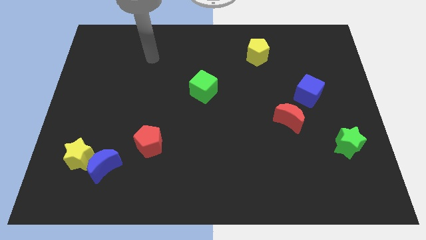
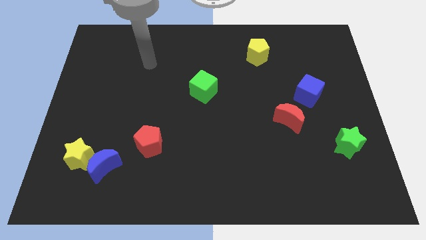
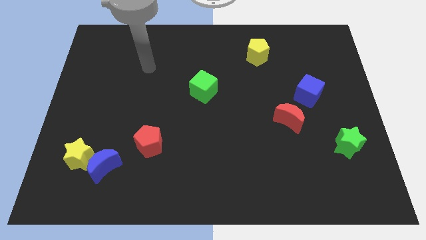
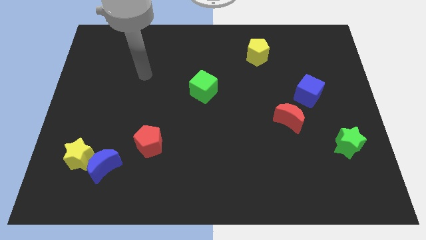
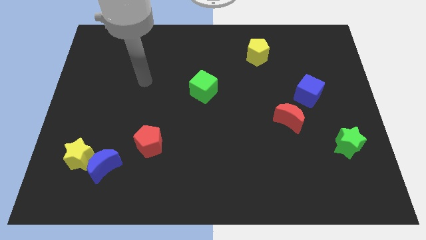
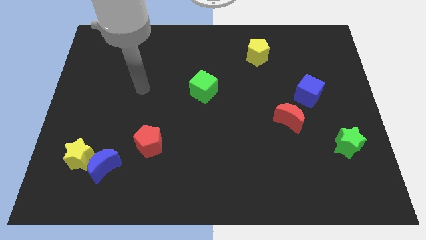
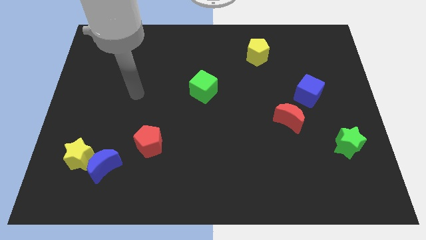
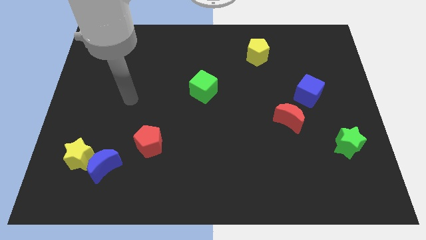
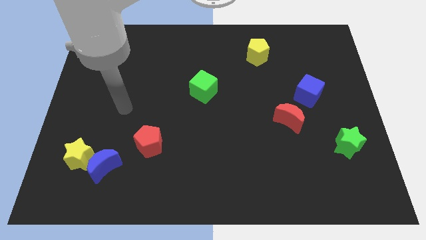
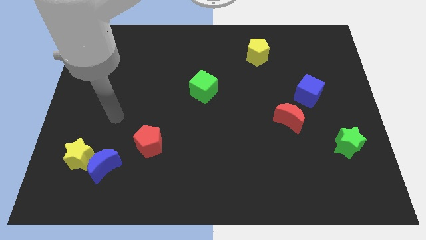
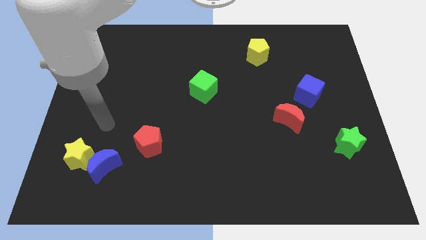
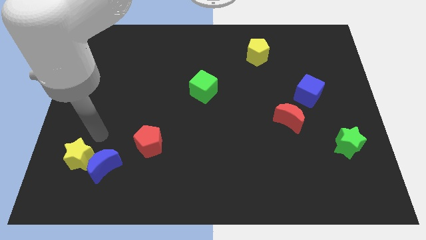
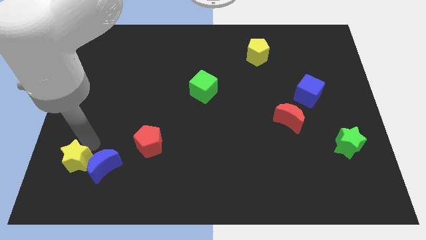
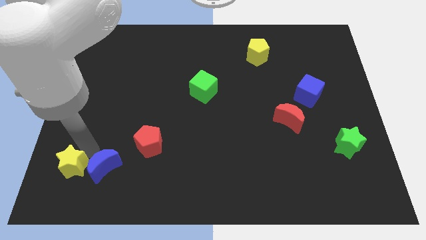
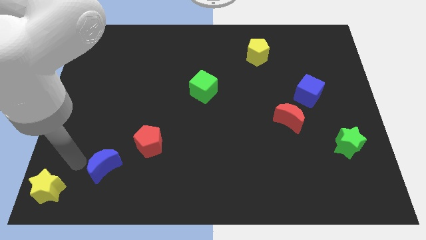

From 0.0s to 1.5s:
pull the blue moon apart from the yellow star

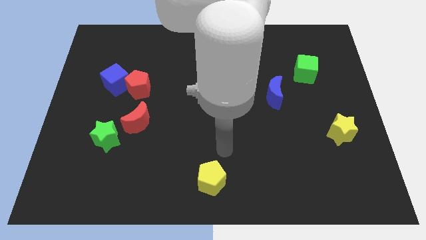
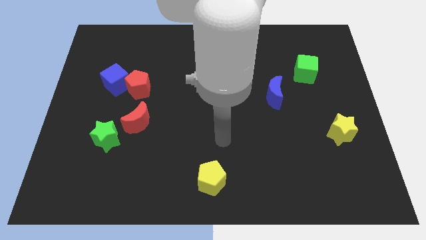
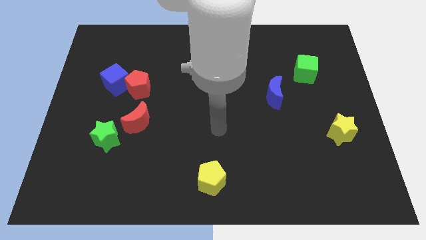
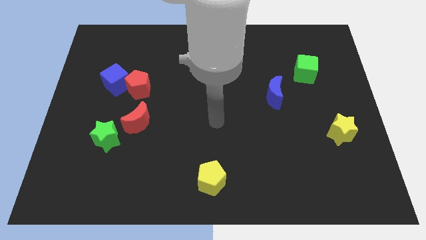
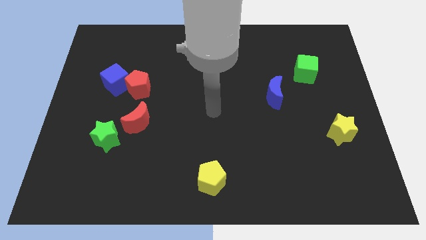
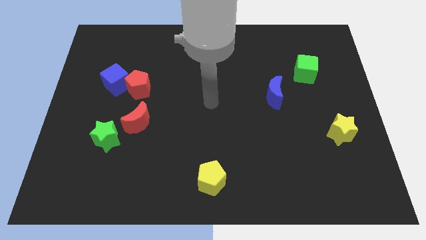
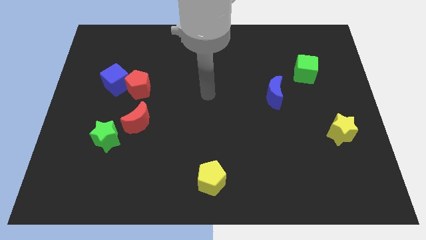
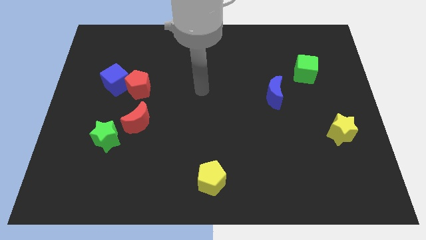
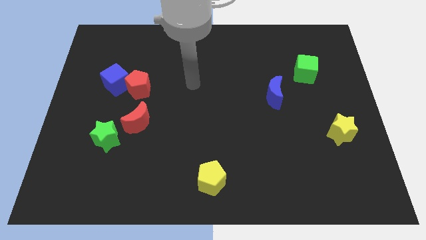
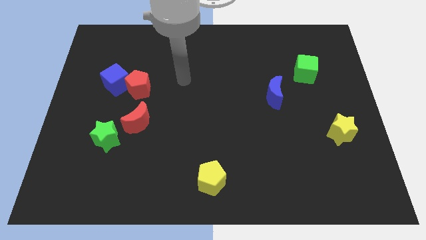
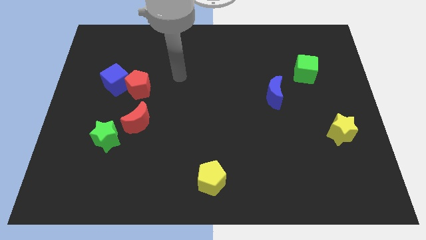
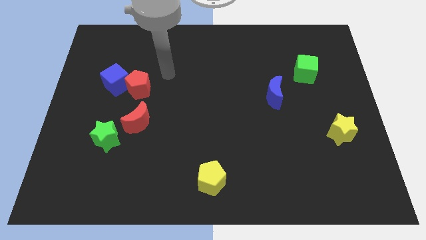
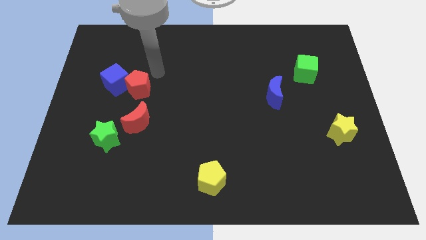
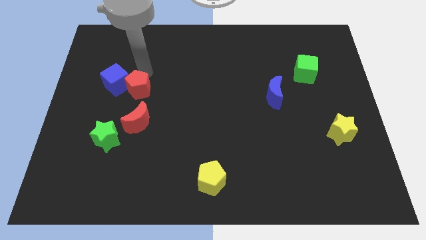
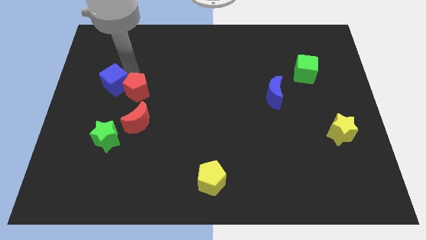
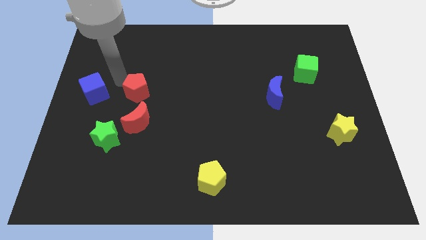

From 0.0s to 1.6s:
separate the red pentagon from the blue cube

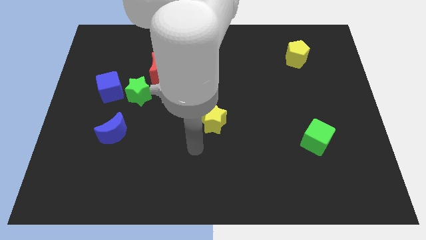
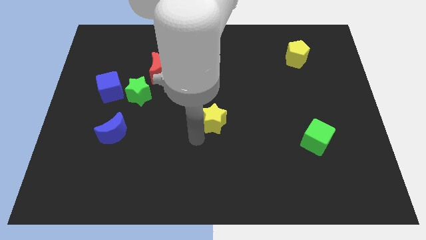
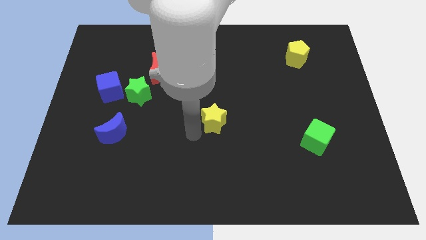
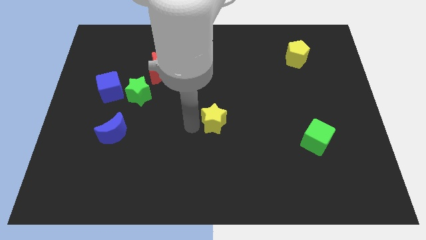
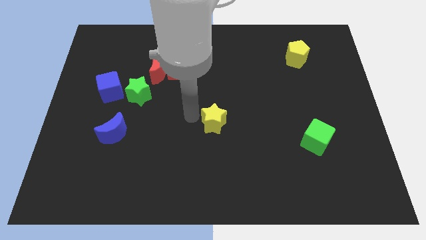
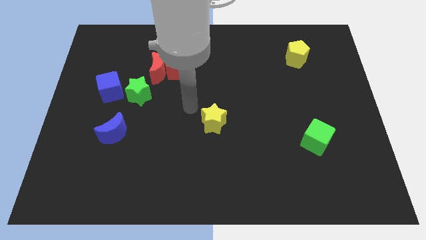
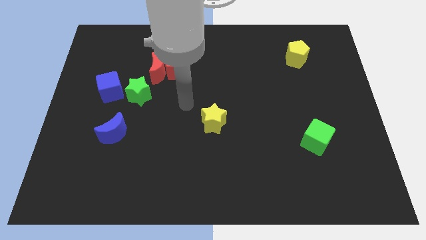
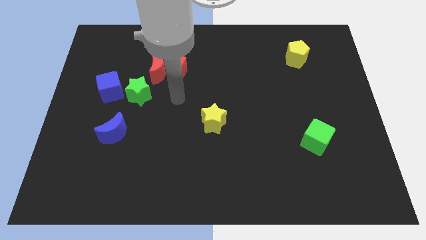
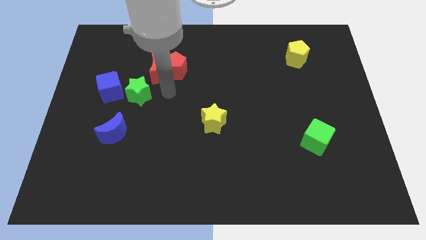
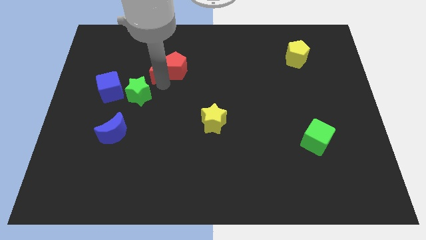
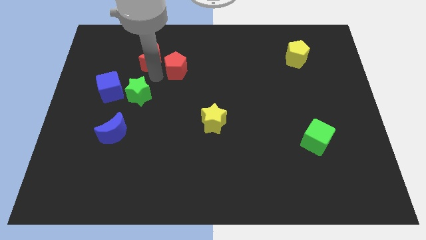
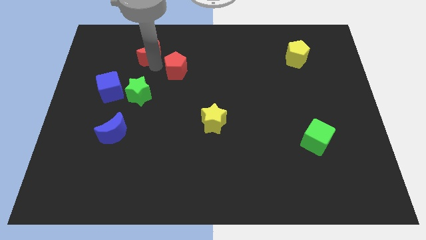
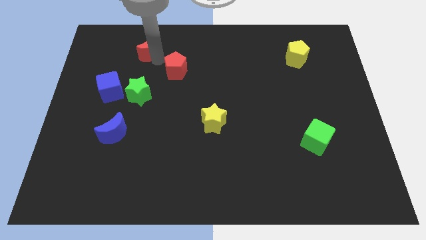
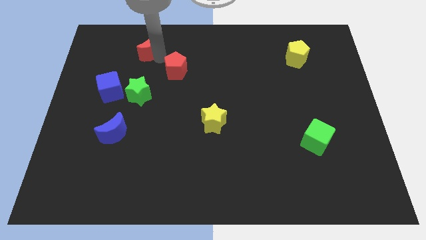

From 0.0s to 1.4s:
pull the red pentagon apart from the red moon

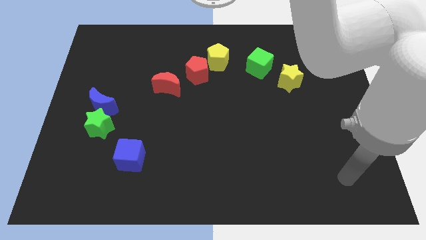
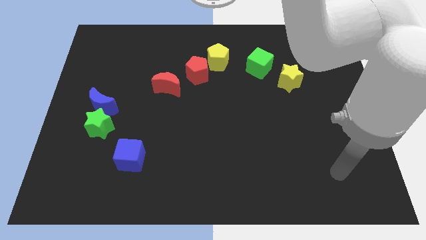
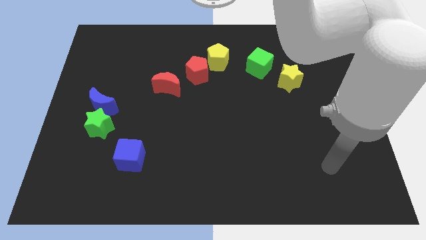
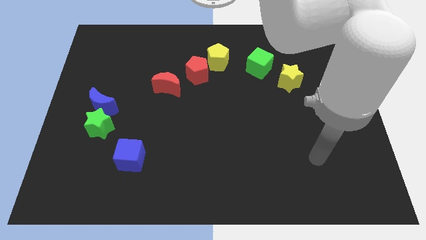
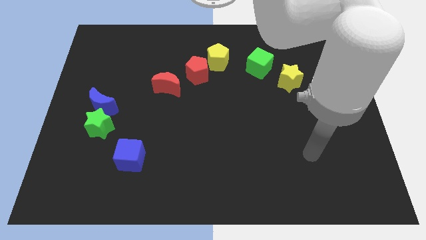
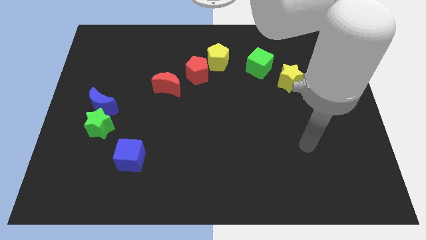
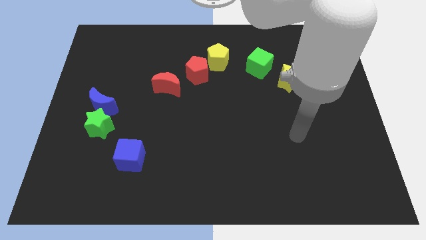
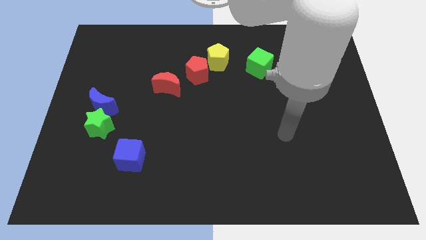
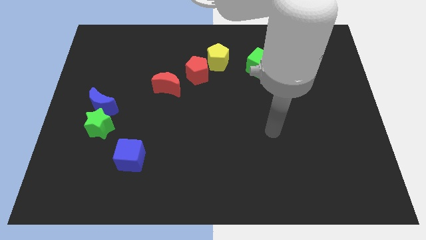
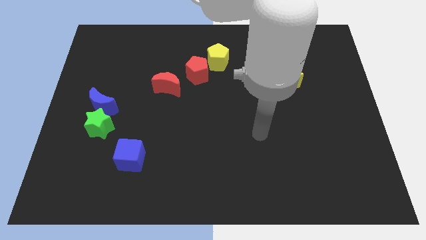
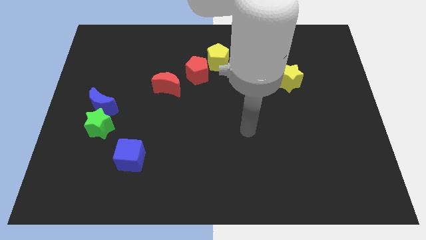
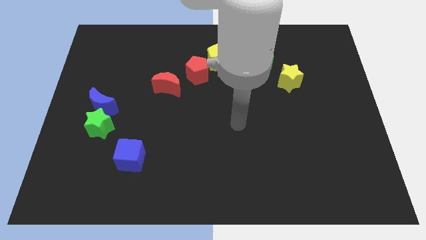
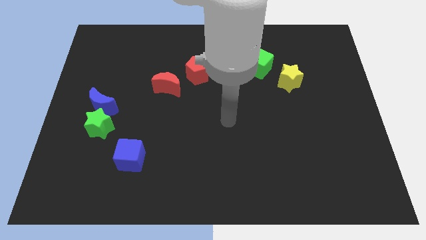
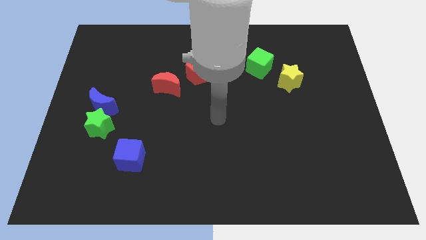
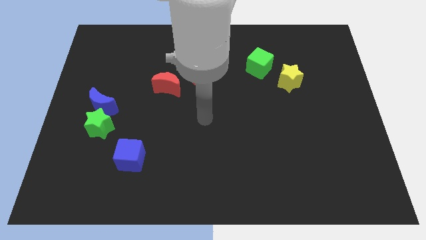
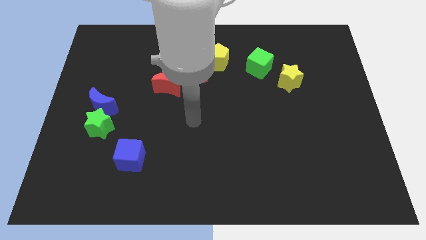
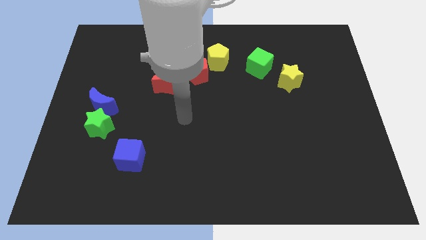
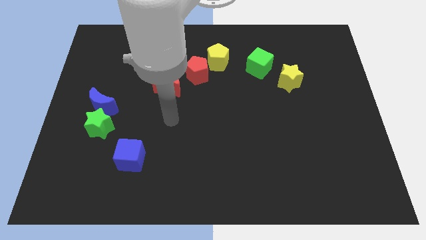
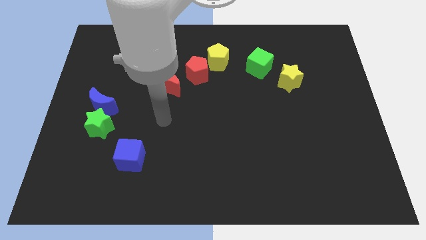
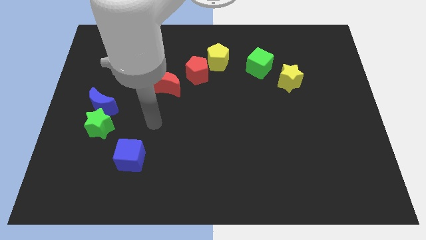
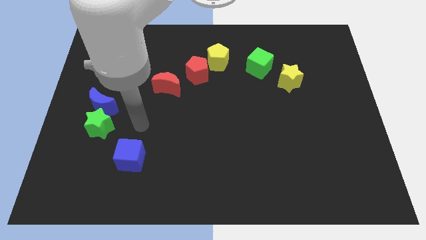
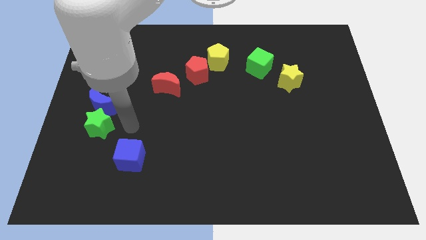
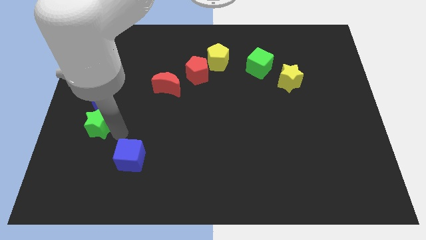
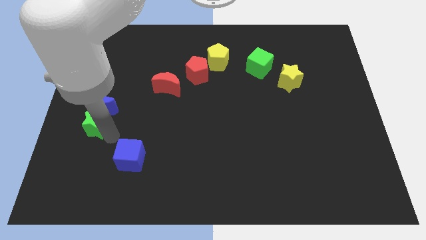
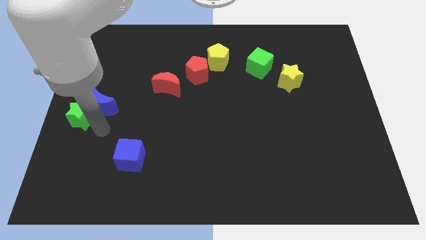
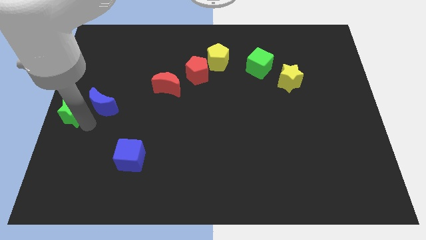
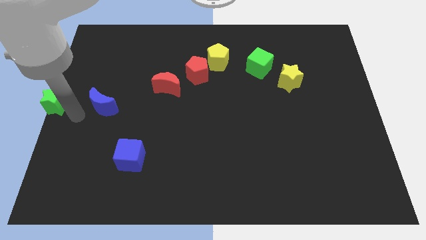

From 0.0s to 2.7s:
move the blue moon away from the green star

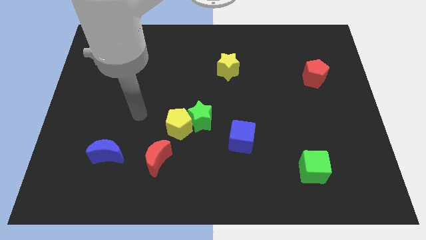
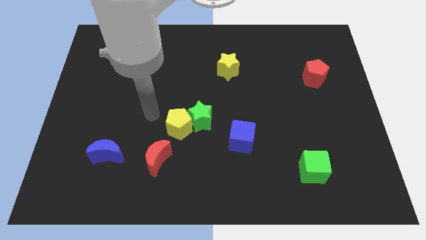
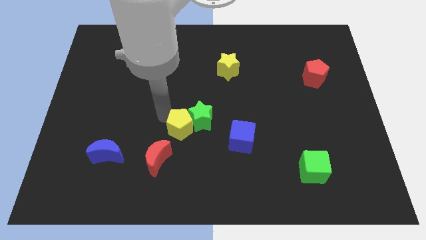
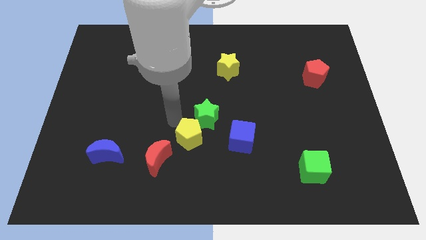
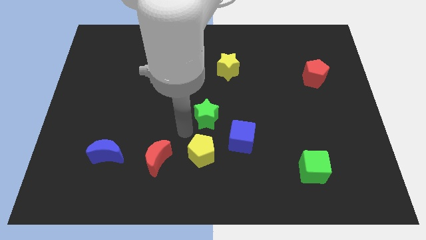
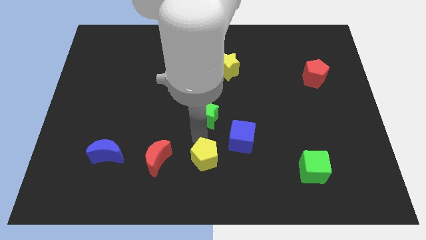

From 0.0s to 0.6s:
separate the green star from the yellow pentagon

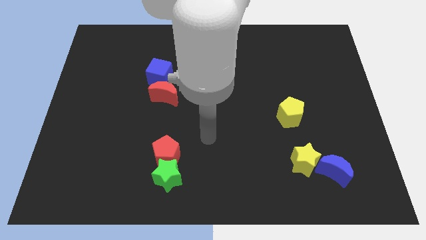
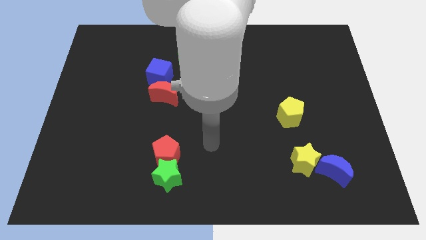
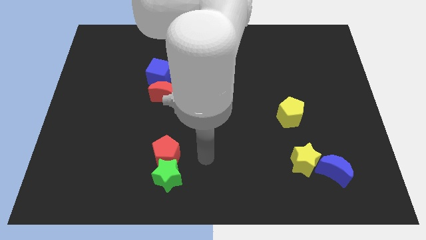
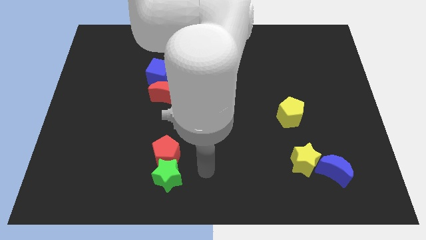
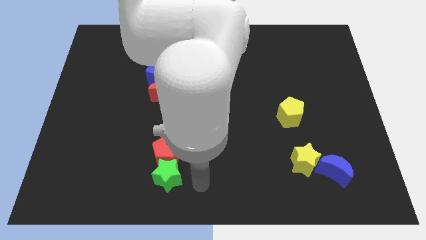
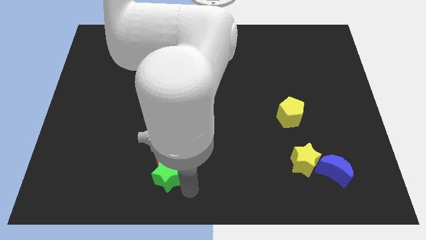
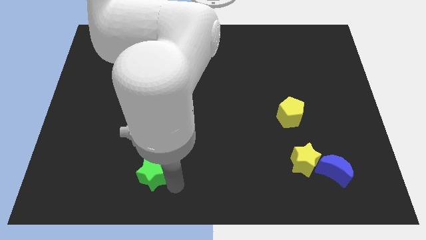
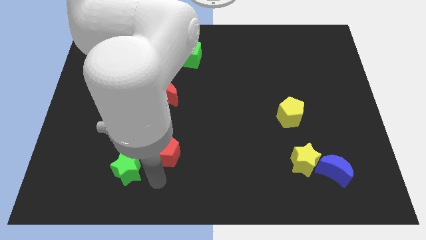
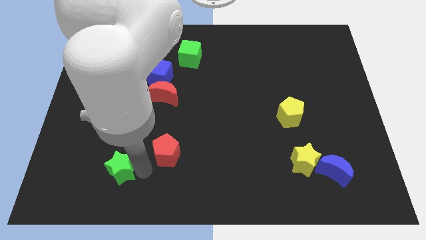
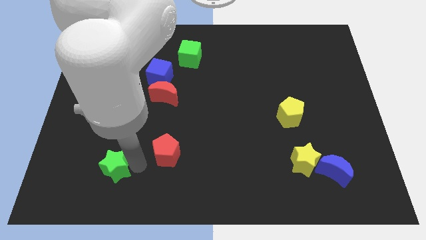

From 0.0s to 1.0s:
separate the red pentagon from the green star

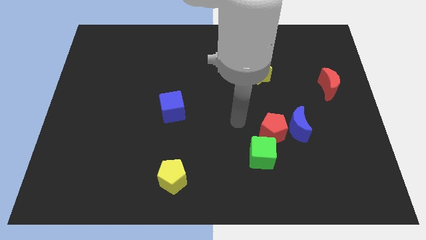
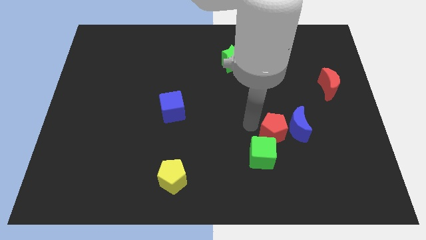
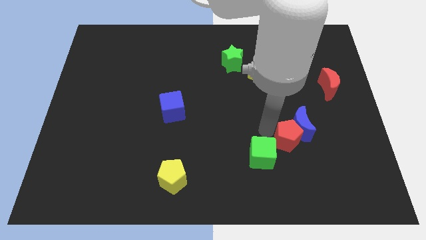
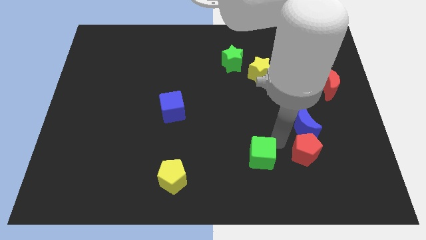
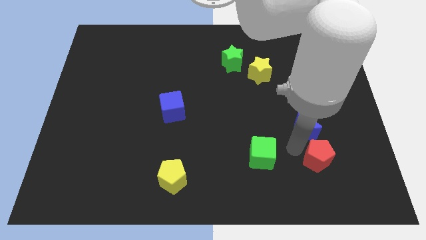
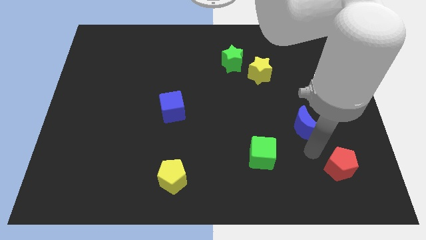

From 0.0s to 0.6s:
move the blue moon away from the red pentagon
